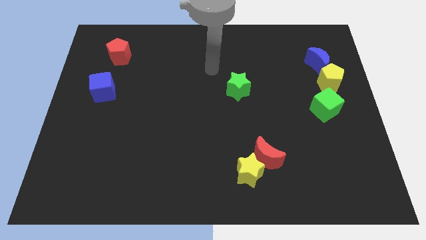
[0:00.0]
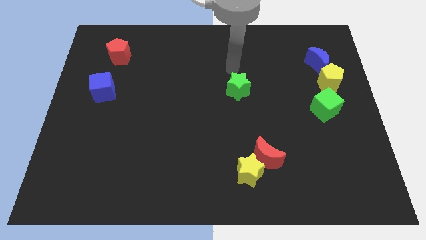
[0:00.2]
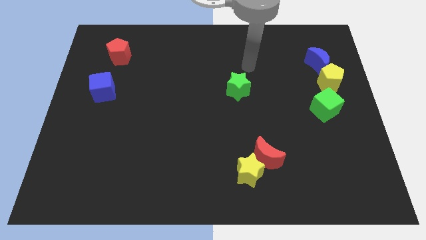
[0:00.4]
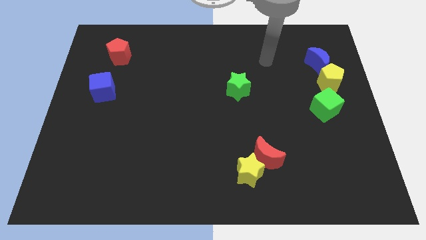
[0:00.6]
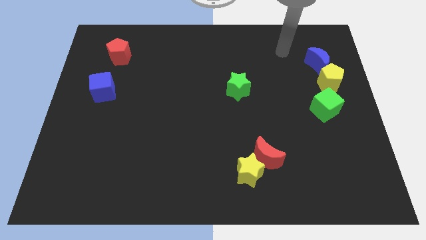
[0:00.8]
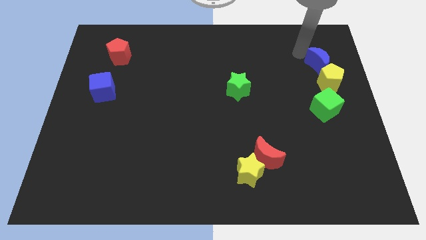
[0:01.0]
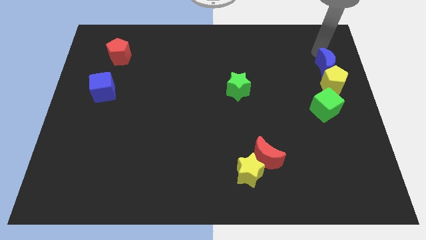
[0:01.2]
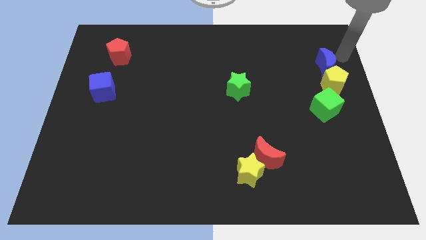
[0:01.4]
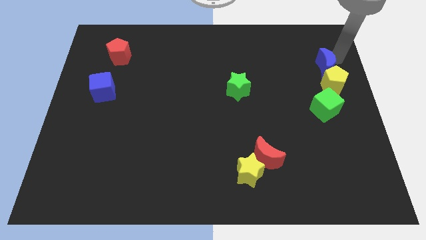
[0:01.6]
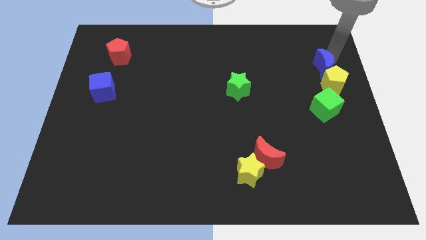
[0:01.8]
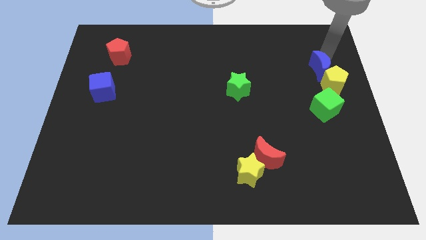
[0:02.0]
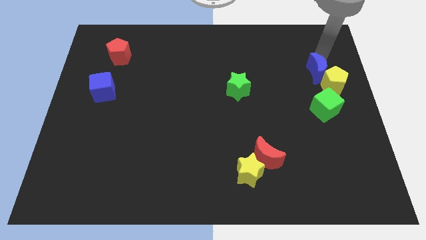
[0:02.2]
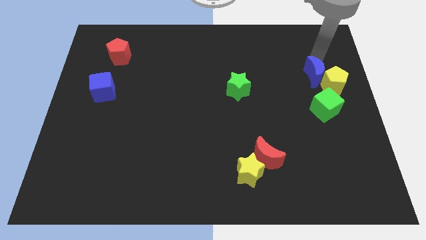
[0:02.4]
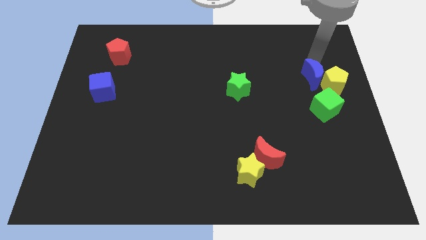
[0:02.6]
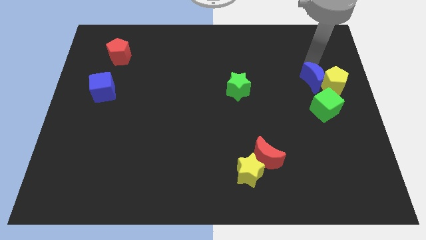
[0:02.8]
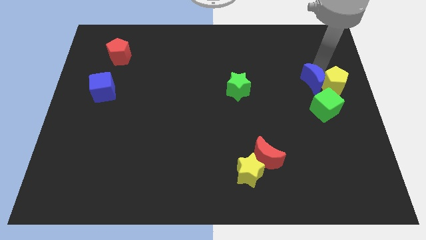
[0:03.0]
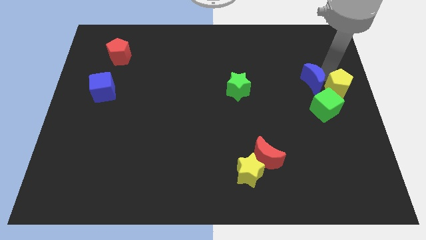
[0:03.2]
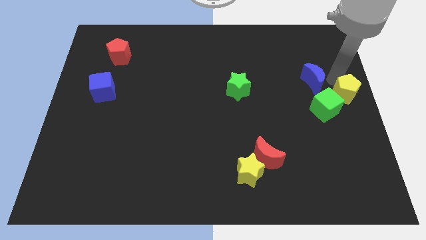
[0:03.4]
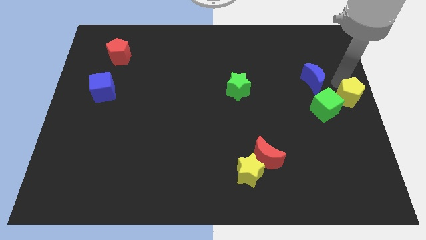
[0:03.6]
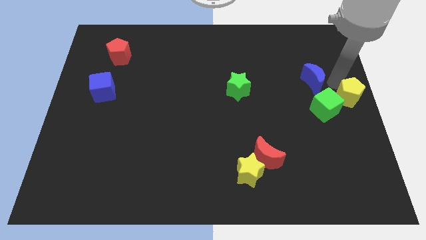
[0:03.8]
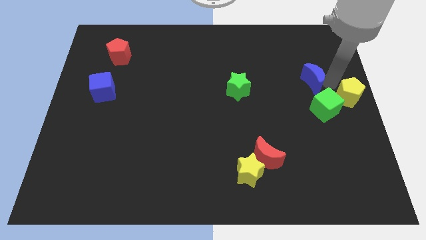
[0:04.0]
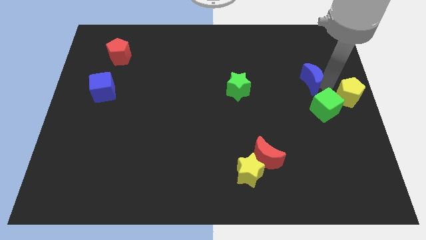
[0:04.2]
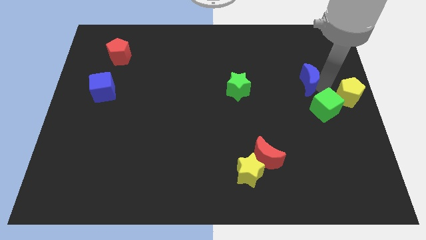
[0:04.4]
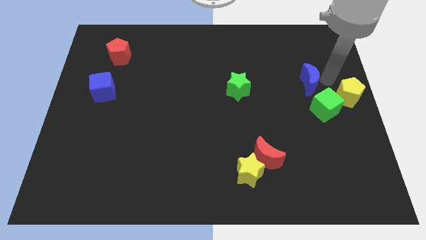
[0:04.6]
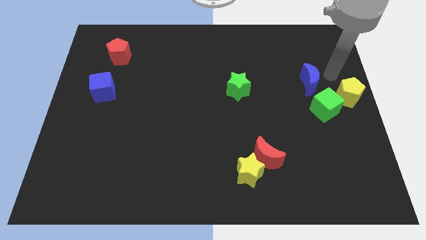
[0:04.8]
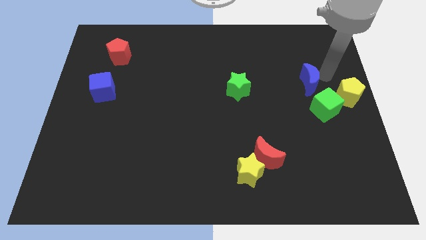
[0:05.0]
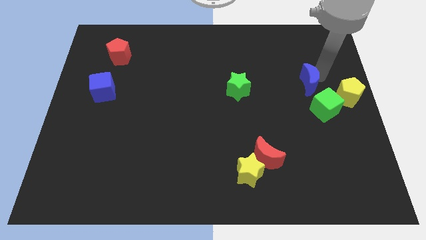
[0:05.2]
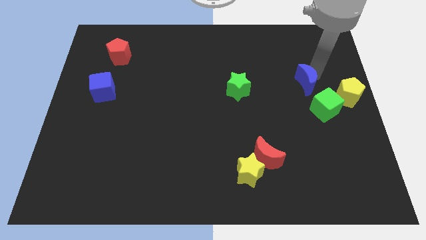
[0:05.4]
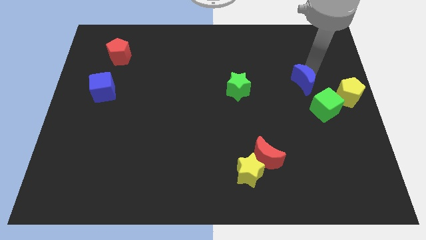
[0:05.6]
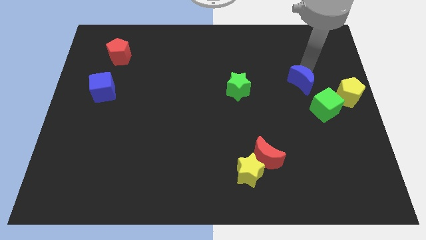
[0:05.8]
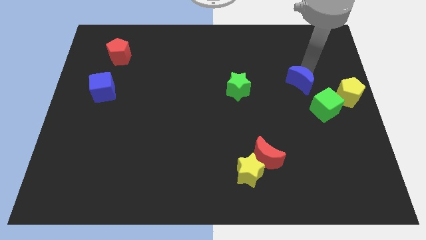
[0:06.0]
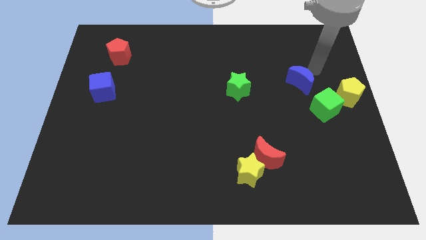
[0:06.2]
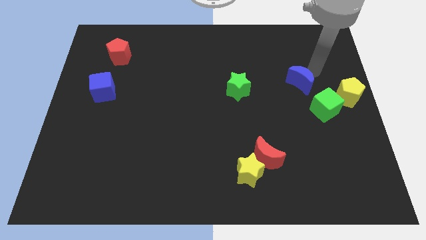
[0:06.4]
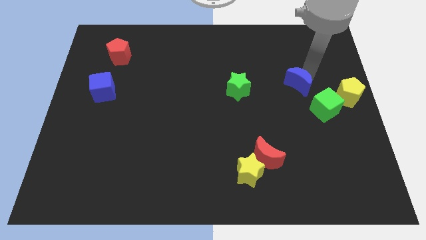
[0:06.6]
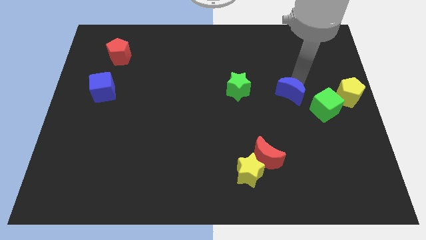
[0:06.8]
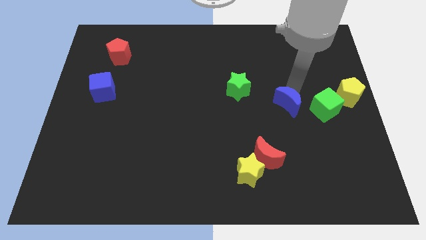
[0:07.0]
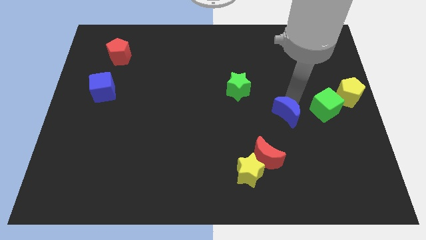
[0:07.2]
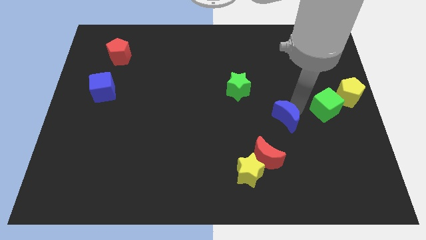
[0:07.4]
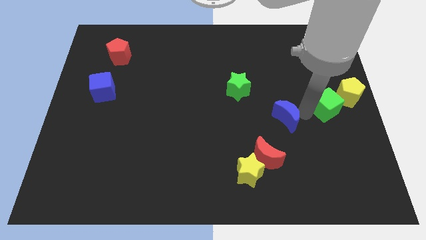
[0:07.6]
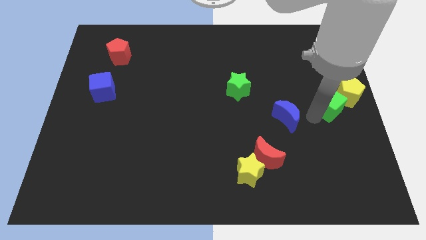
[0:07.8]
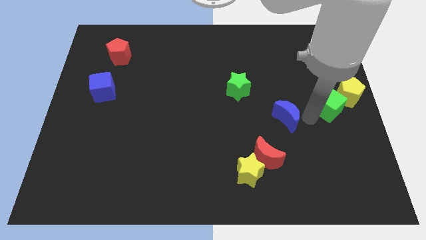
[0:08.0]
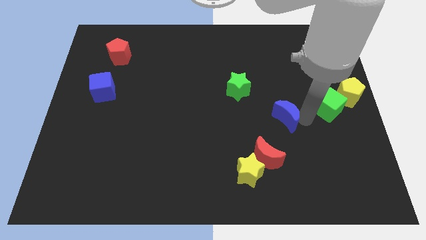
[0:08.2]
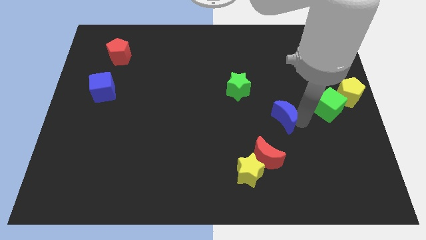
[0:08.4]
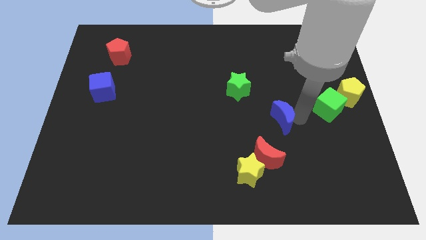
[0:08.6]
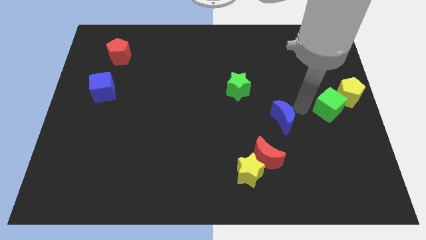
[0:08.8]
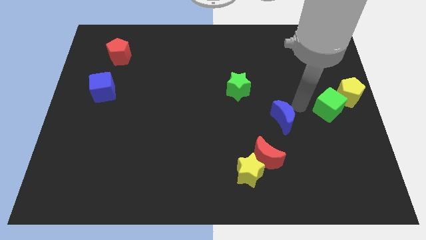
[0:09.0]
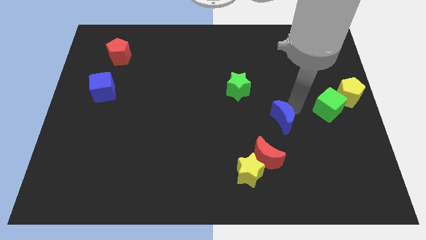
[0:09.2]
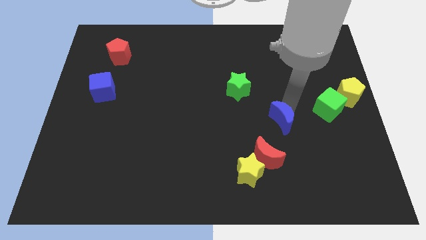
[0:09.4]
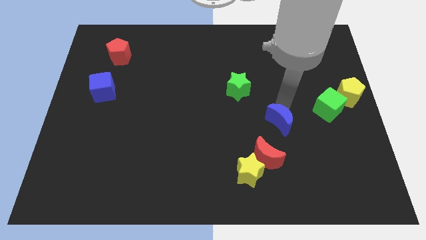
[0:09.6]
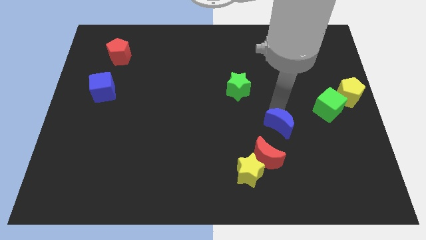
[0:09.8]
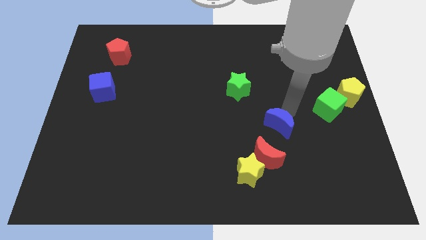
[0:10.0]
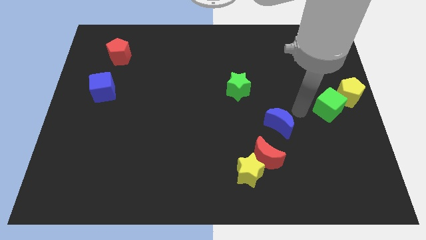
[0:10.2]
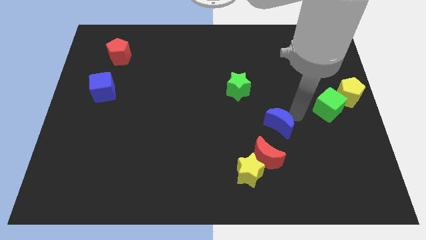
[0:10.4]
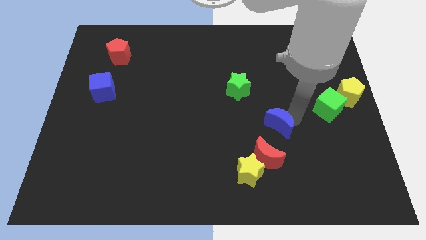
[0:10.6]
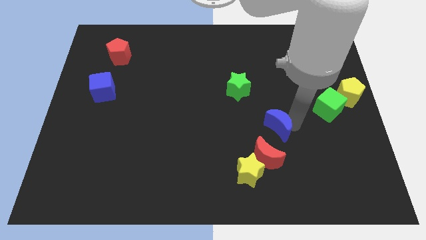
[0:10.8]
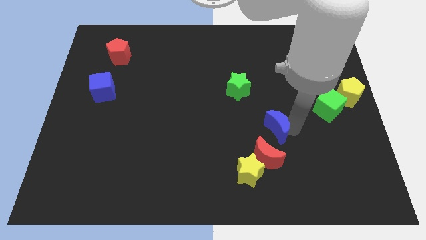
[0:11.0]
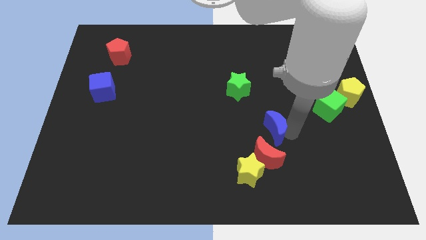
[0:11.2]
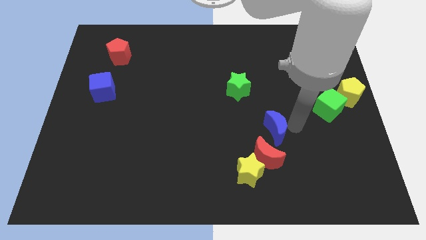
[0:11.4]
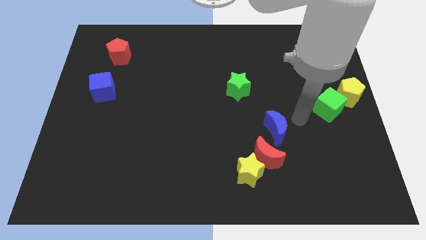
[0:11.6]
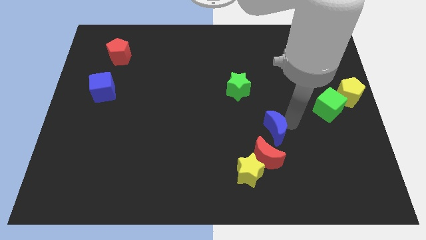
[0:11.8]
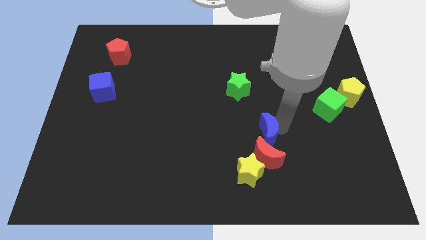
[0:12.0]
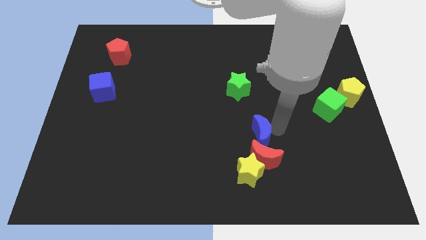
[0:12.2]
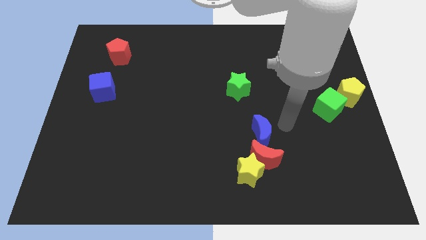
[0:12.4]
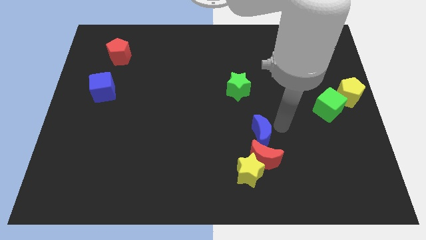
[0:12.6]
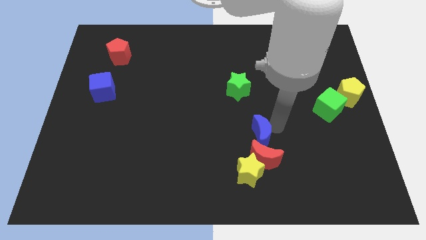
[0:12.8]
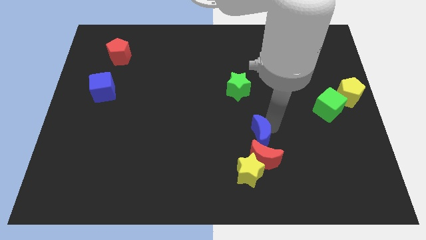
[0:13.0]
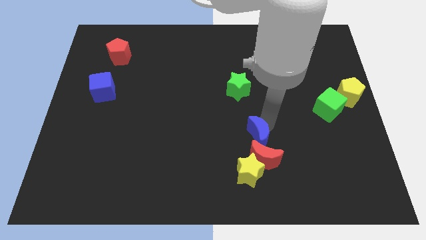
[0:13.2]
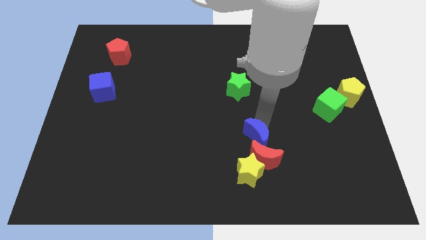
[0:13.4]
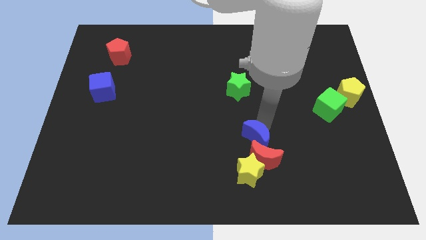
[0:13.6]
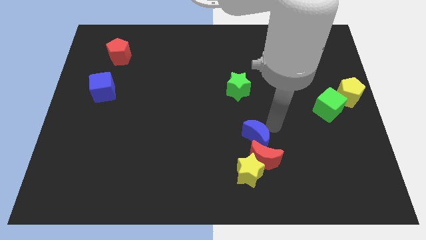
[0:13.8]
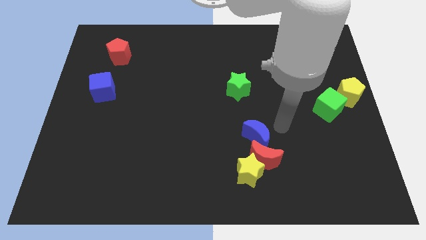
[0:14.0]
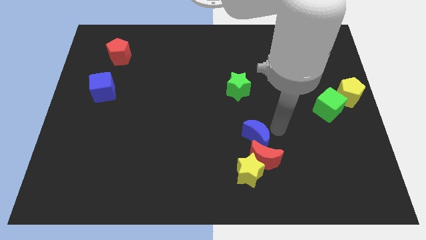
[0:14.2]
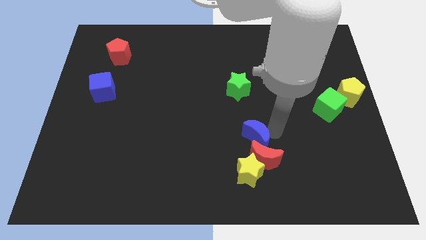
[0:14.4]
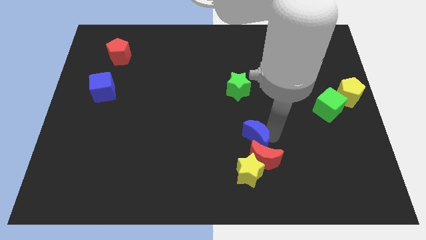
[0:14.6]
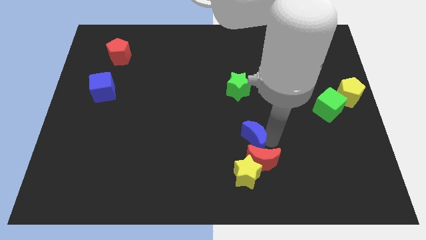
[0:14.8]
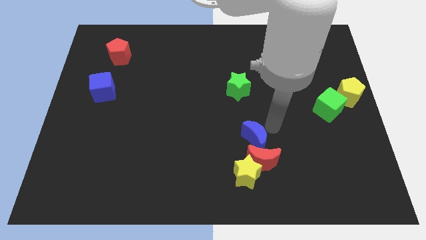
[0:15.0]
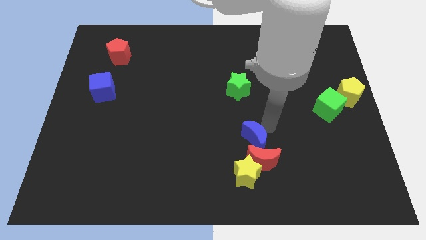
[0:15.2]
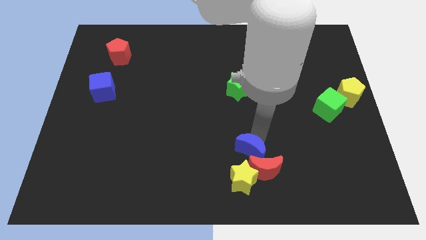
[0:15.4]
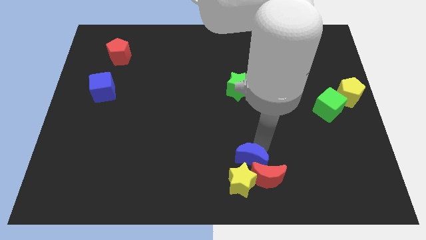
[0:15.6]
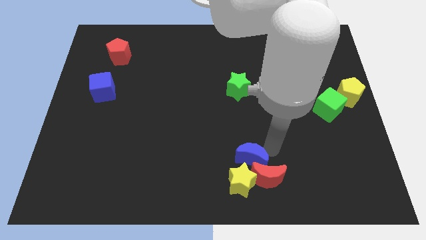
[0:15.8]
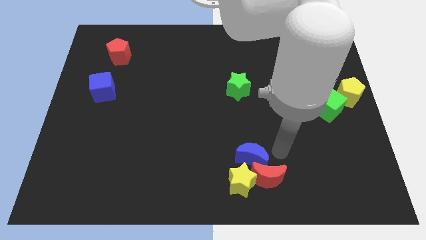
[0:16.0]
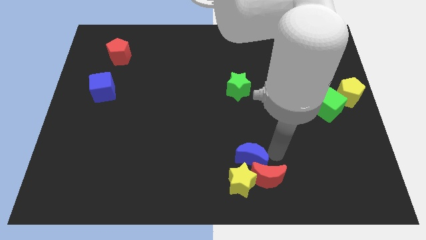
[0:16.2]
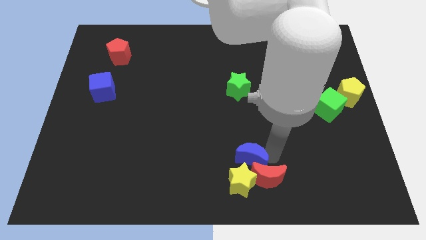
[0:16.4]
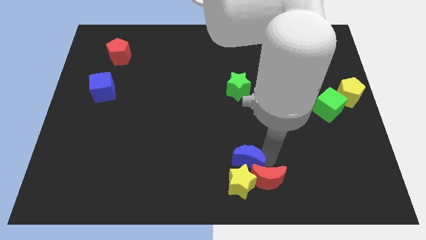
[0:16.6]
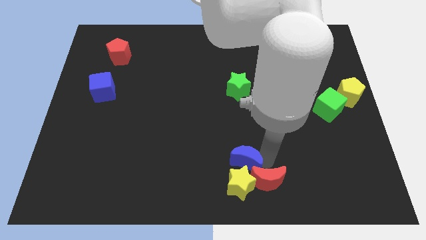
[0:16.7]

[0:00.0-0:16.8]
push the blue moon to the bottom side

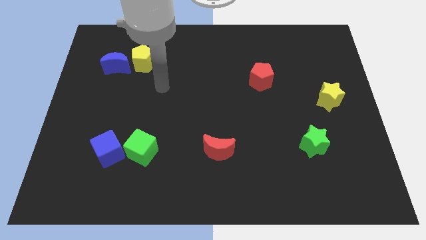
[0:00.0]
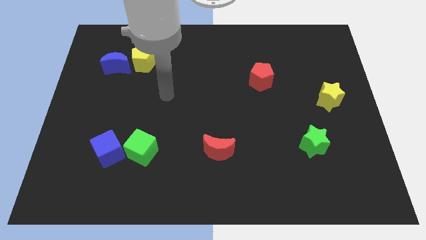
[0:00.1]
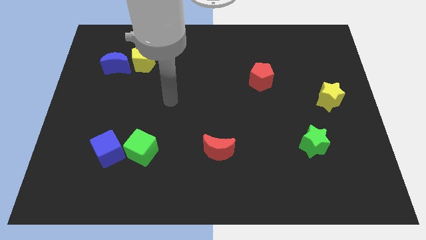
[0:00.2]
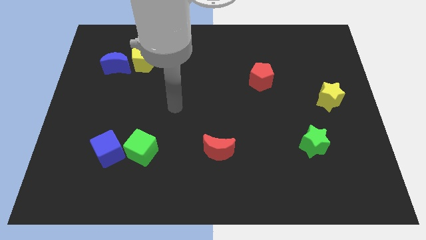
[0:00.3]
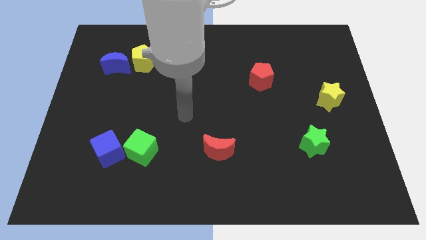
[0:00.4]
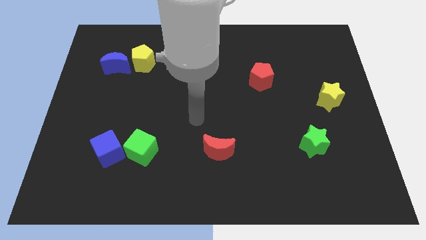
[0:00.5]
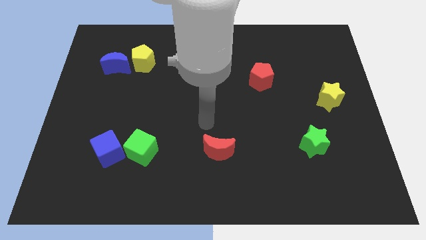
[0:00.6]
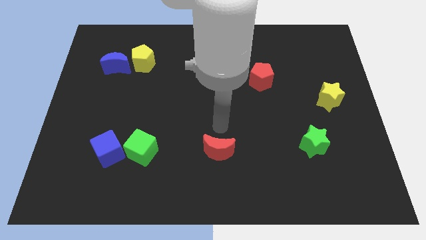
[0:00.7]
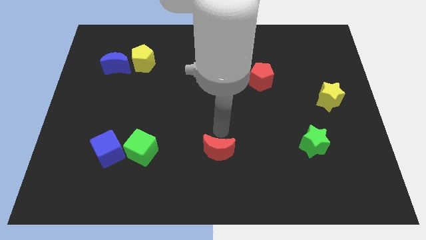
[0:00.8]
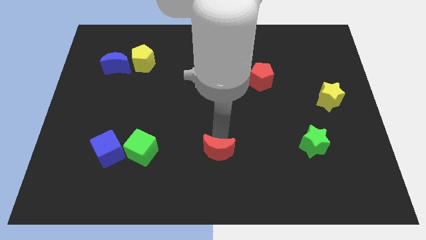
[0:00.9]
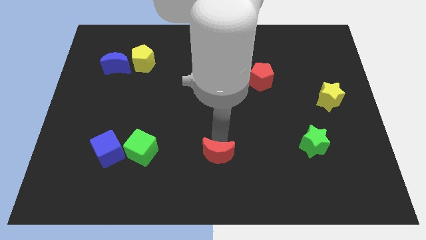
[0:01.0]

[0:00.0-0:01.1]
push the red moon to the bottom
